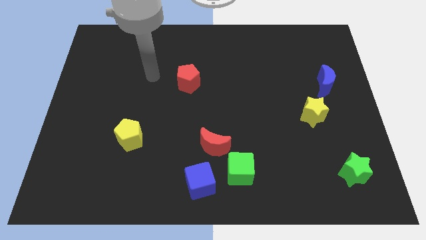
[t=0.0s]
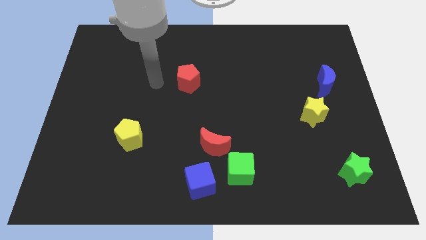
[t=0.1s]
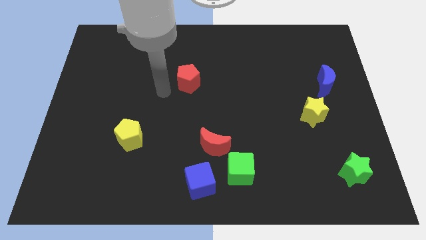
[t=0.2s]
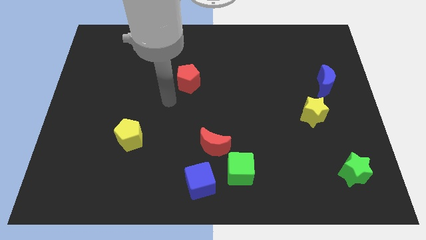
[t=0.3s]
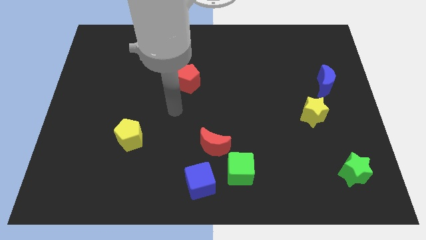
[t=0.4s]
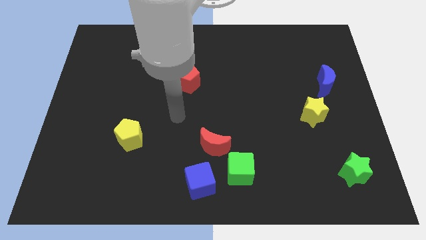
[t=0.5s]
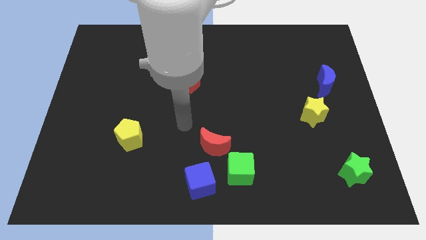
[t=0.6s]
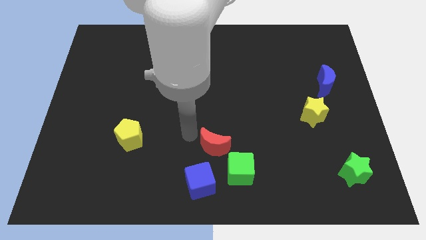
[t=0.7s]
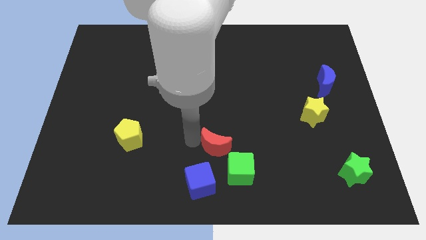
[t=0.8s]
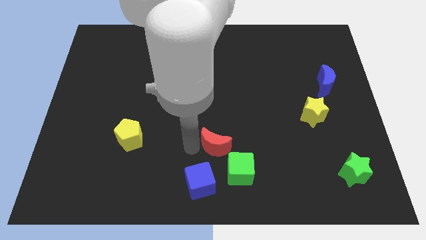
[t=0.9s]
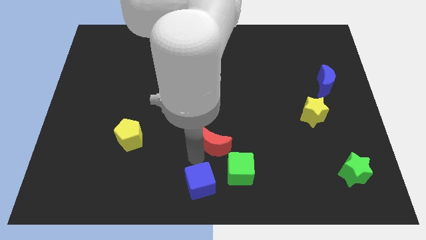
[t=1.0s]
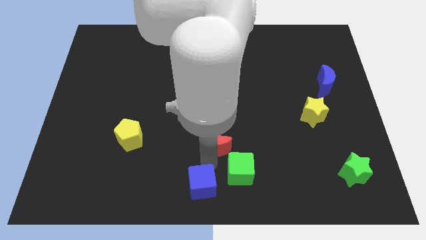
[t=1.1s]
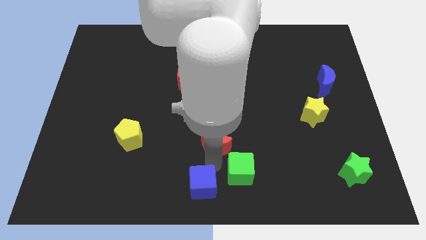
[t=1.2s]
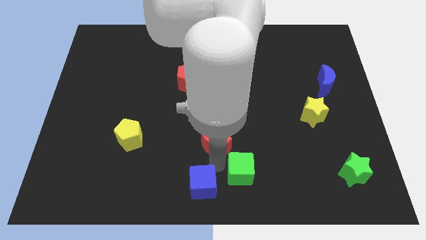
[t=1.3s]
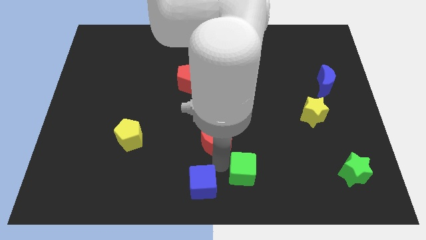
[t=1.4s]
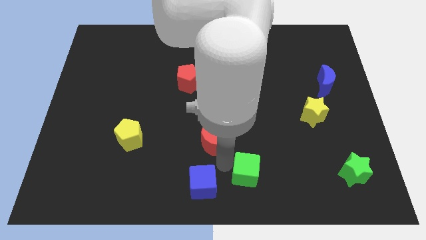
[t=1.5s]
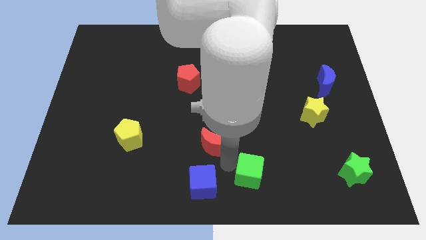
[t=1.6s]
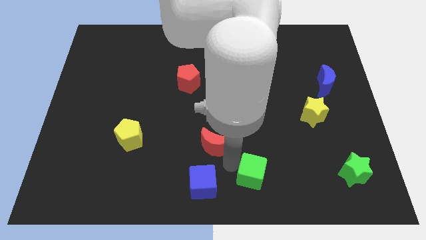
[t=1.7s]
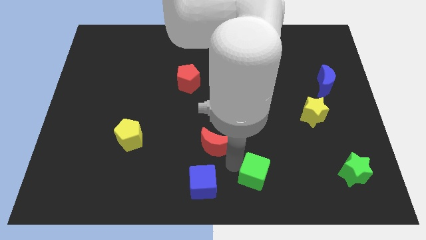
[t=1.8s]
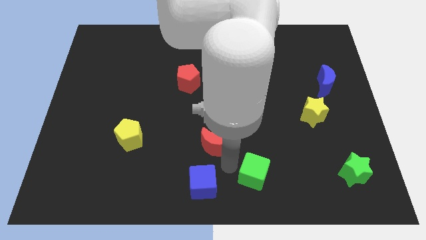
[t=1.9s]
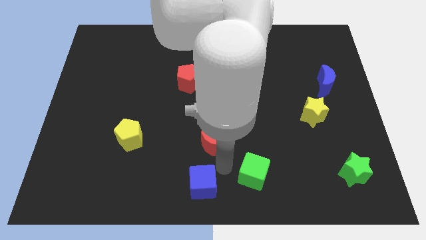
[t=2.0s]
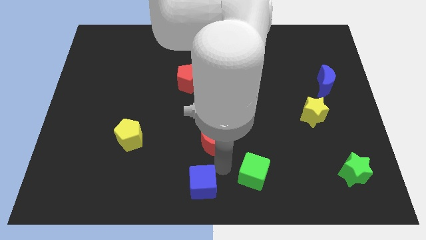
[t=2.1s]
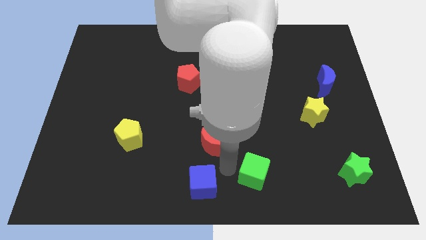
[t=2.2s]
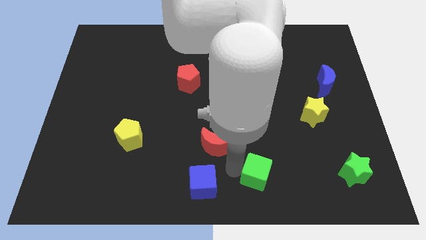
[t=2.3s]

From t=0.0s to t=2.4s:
move the green cube away from the red moon and blue cube

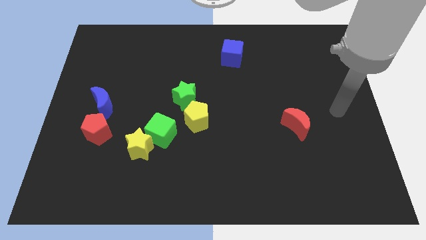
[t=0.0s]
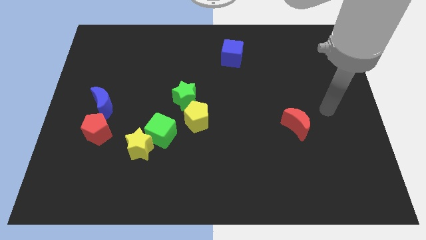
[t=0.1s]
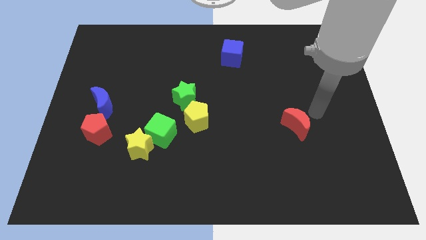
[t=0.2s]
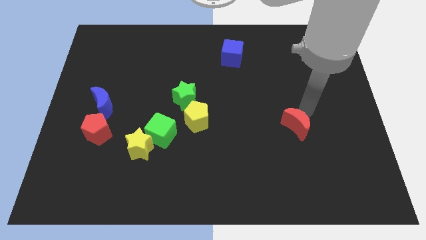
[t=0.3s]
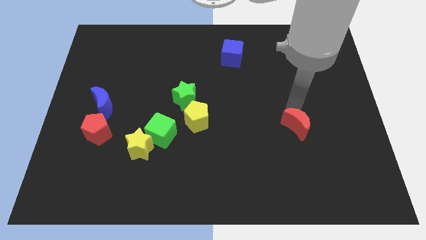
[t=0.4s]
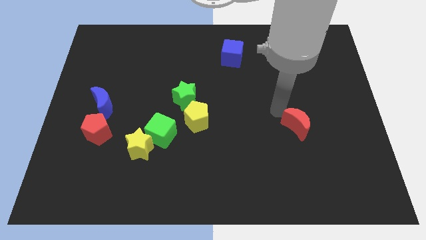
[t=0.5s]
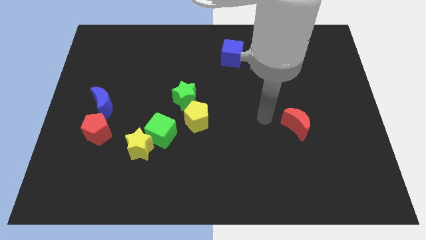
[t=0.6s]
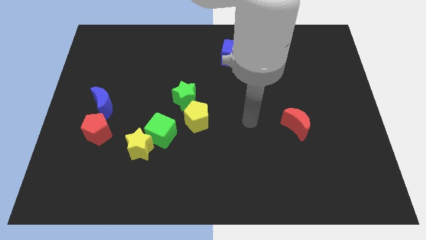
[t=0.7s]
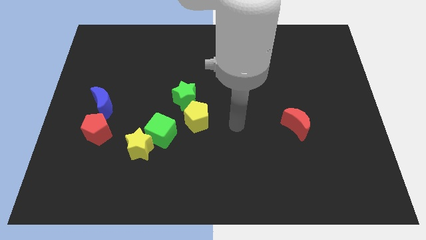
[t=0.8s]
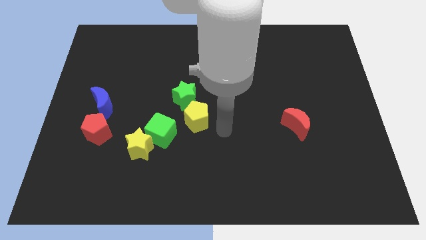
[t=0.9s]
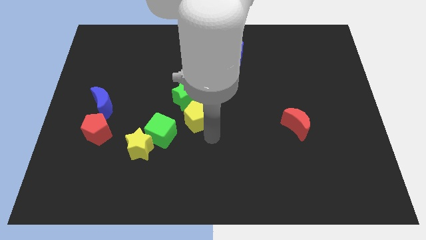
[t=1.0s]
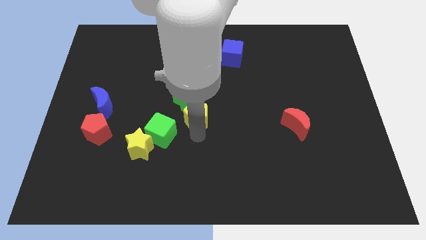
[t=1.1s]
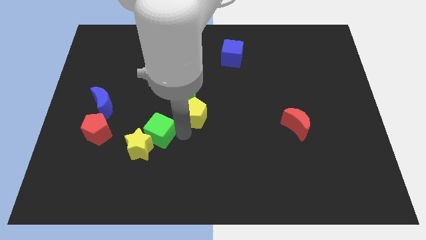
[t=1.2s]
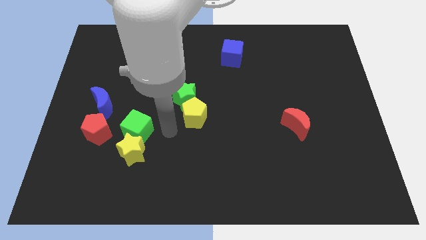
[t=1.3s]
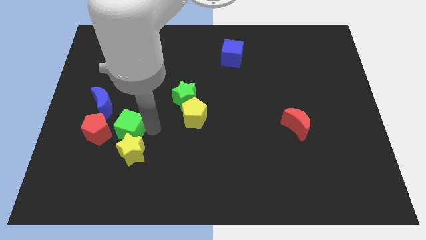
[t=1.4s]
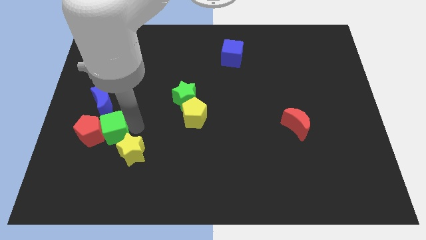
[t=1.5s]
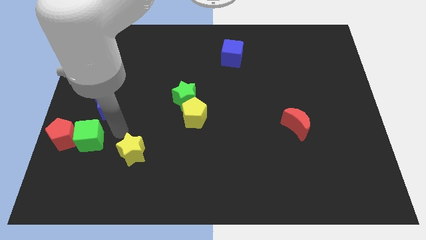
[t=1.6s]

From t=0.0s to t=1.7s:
pull the yellow star apart from the green cube

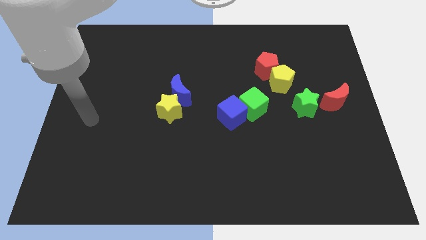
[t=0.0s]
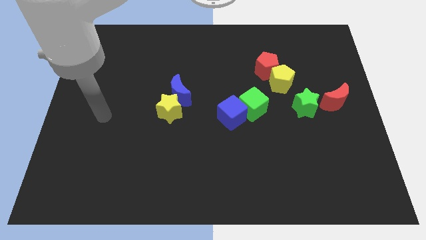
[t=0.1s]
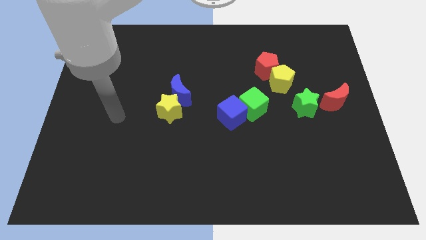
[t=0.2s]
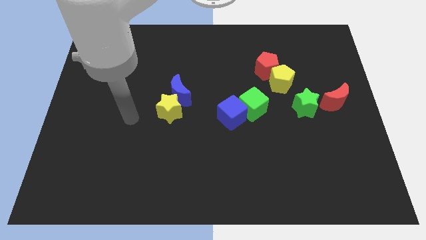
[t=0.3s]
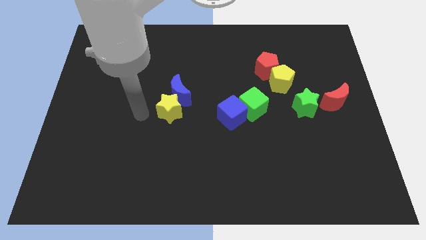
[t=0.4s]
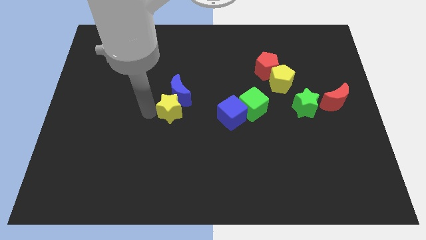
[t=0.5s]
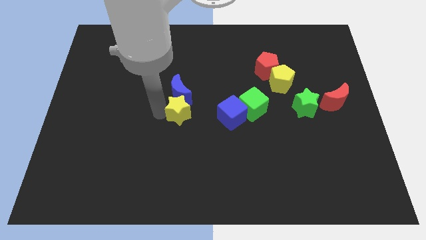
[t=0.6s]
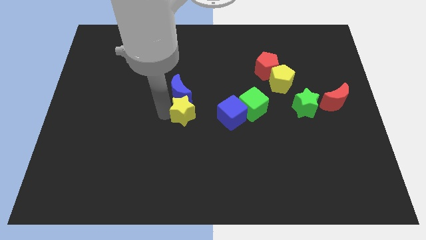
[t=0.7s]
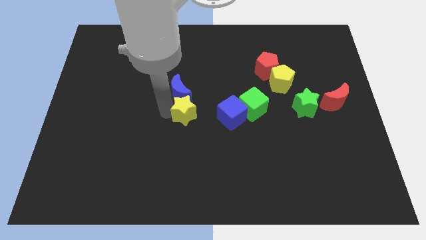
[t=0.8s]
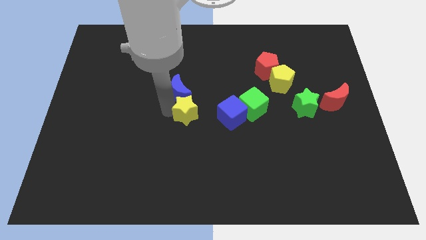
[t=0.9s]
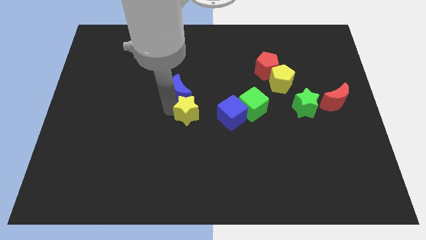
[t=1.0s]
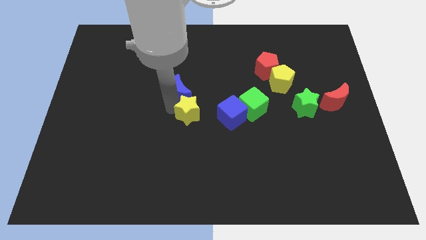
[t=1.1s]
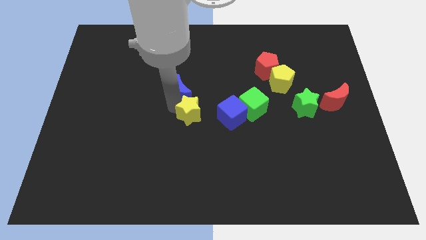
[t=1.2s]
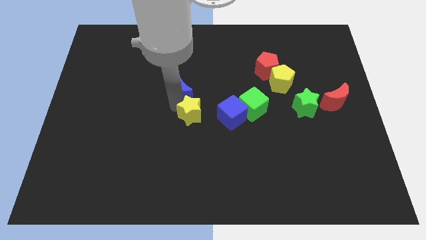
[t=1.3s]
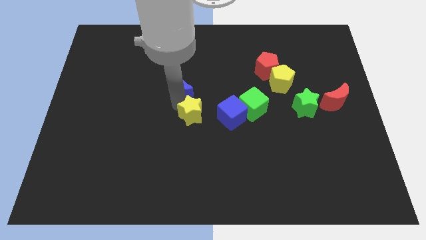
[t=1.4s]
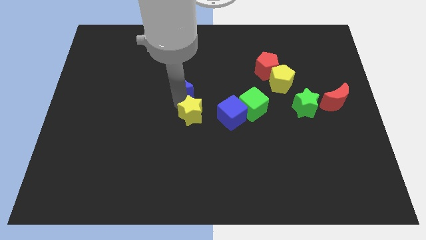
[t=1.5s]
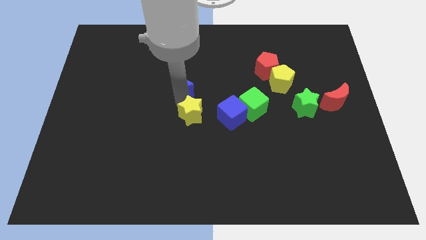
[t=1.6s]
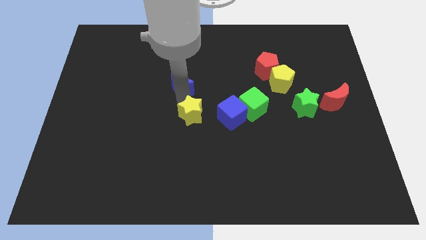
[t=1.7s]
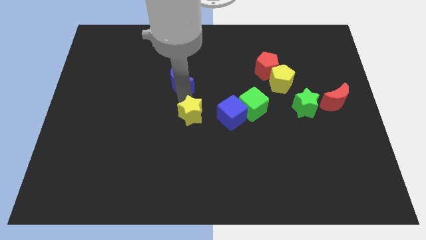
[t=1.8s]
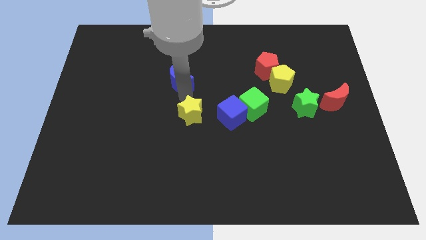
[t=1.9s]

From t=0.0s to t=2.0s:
pull the blue moon apart from the yellow star

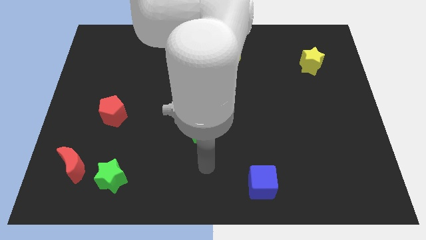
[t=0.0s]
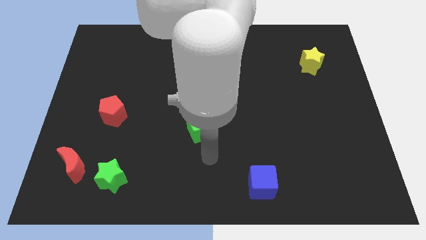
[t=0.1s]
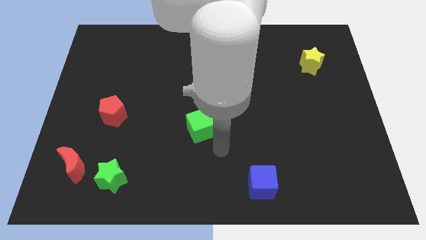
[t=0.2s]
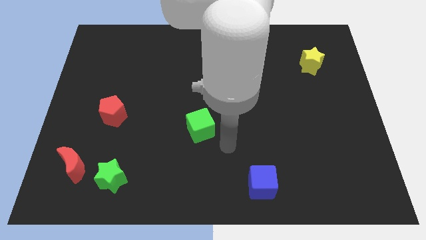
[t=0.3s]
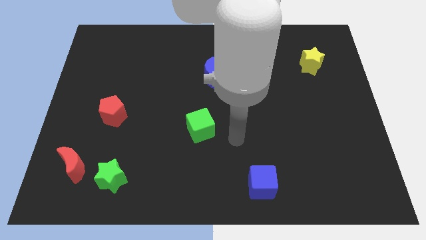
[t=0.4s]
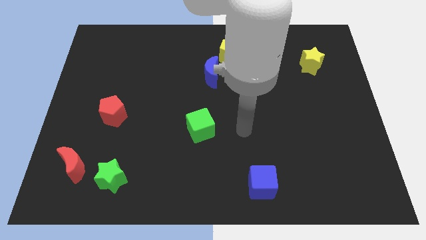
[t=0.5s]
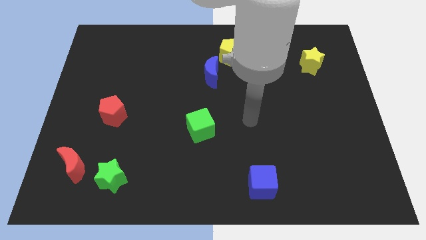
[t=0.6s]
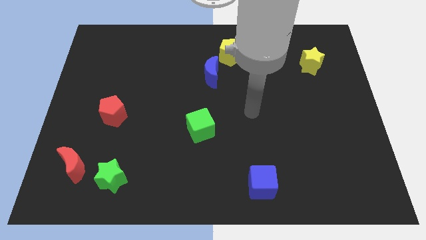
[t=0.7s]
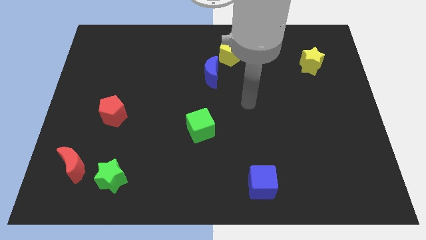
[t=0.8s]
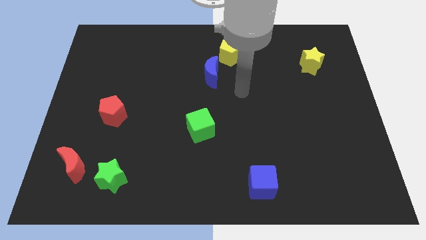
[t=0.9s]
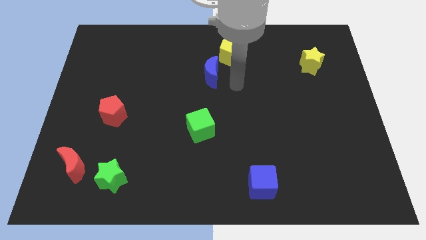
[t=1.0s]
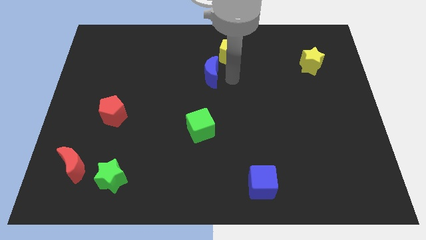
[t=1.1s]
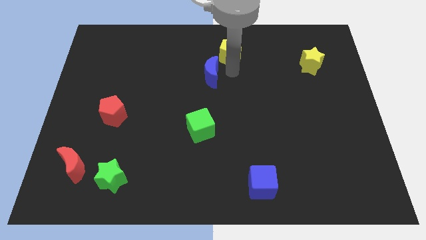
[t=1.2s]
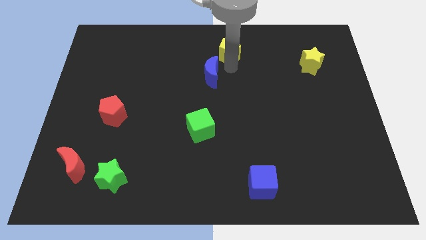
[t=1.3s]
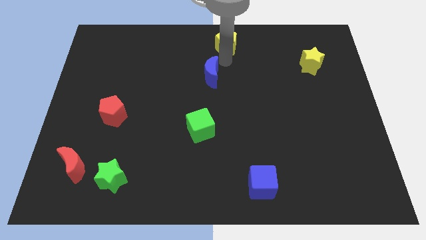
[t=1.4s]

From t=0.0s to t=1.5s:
pull the blue moon apart from the yellow pentagon

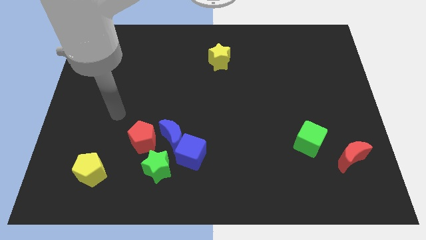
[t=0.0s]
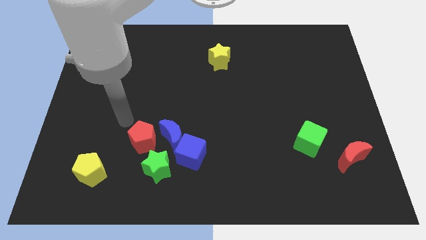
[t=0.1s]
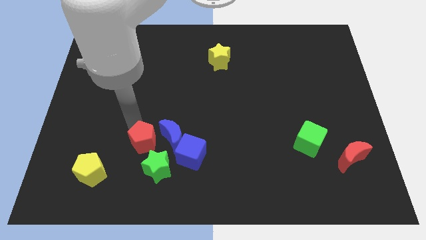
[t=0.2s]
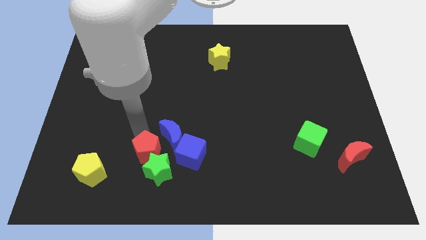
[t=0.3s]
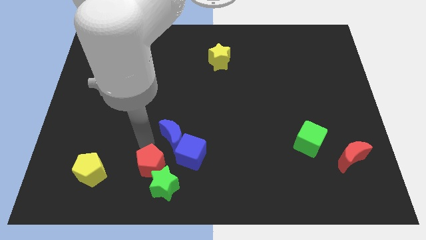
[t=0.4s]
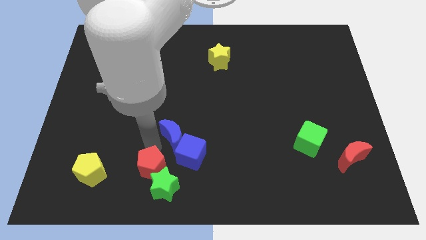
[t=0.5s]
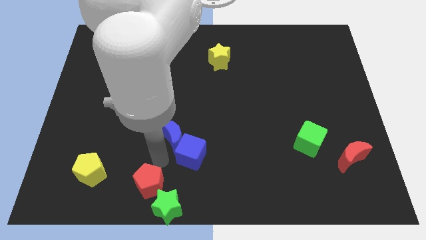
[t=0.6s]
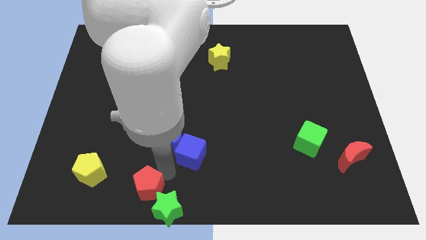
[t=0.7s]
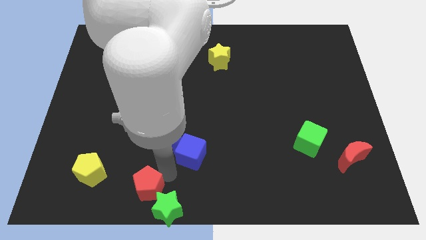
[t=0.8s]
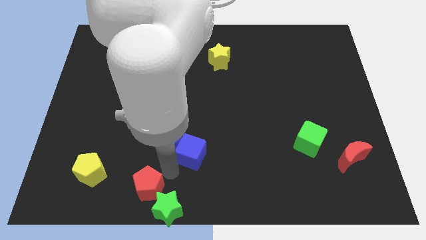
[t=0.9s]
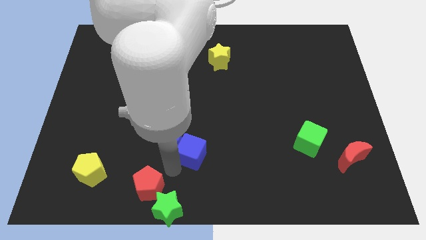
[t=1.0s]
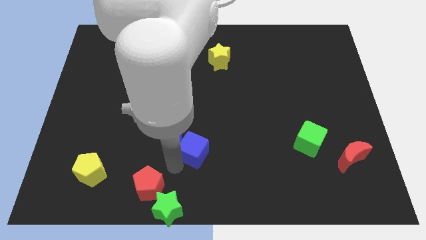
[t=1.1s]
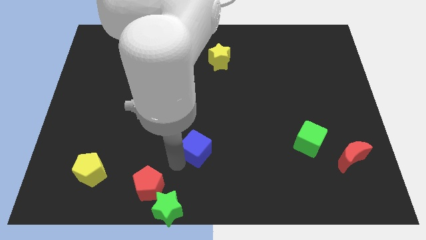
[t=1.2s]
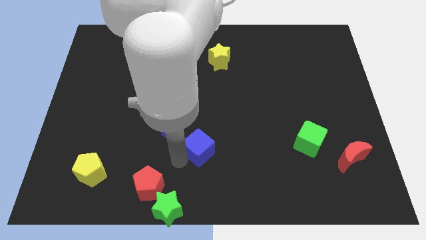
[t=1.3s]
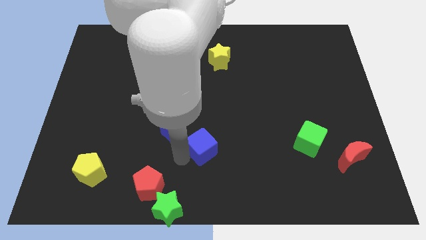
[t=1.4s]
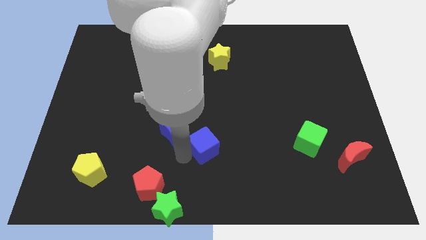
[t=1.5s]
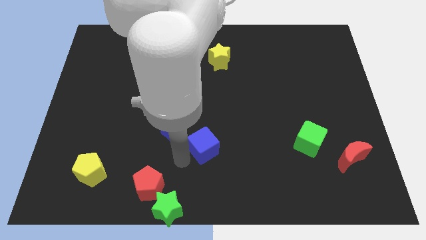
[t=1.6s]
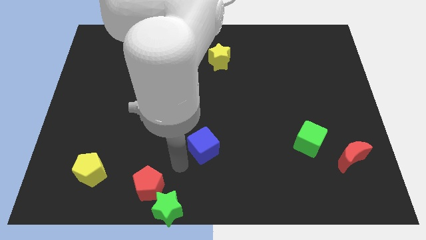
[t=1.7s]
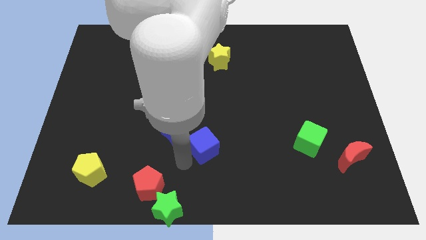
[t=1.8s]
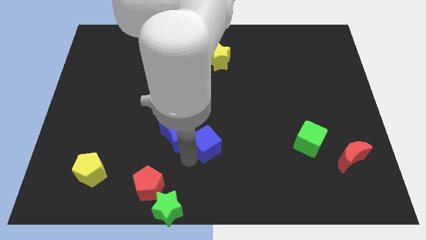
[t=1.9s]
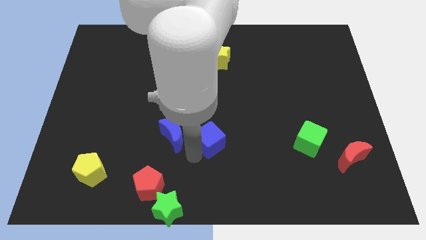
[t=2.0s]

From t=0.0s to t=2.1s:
separate the blue cube from the blue moon and green star
